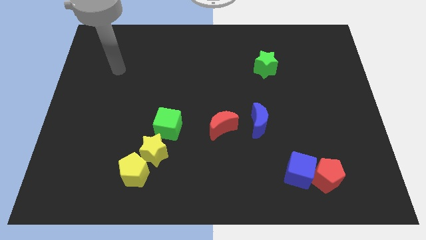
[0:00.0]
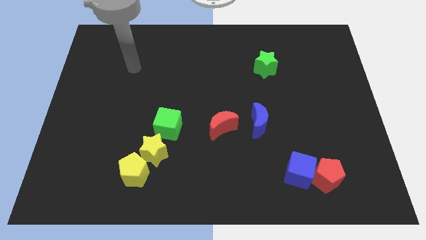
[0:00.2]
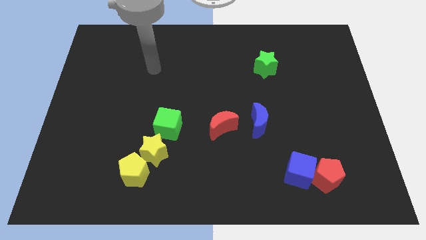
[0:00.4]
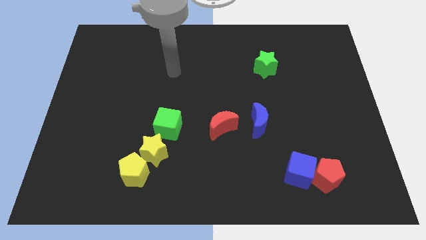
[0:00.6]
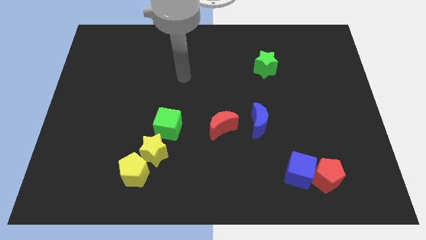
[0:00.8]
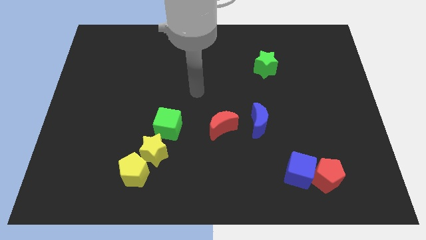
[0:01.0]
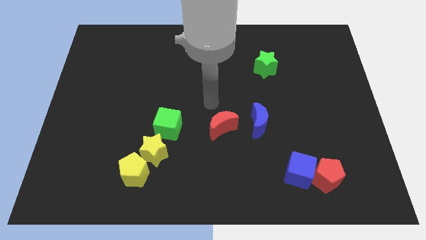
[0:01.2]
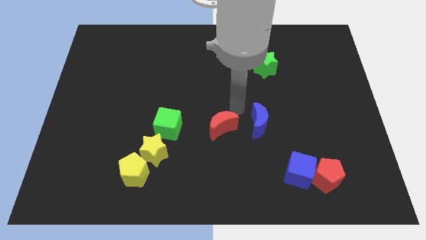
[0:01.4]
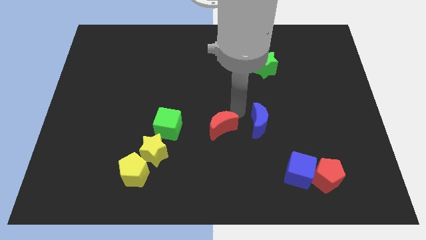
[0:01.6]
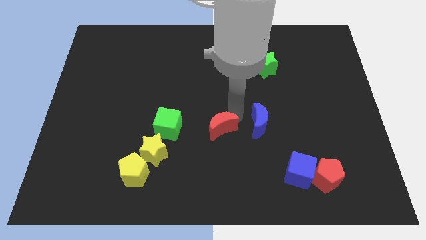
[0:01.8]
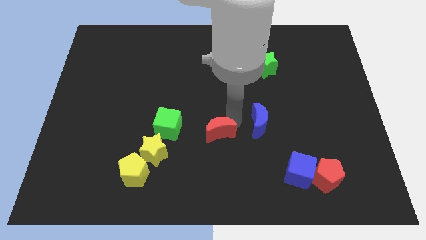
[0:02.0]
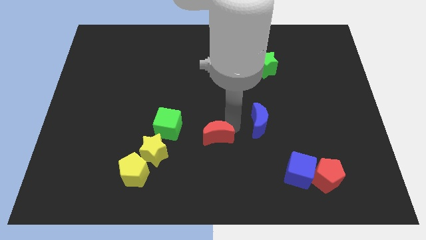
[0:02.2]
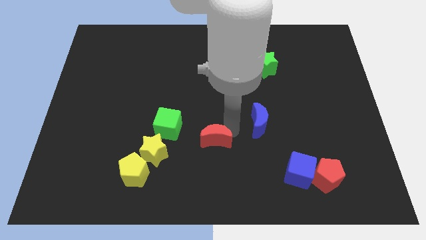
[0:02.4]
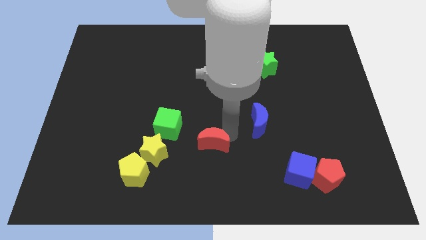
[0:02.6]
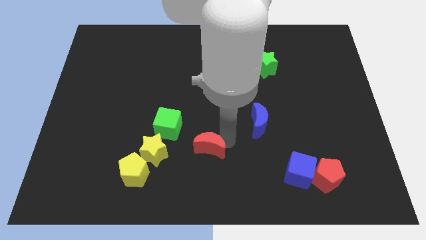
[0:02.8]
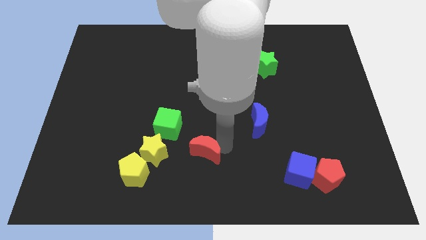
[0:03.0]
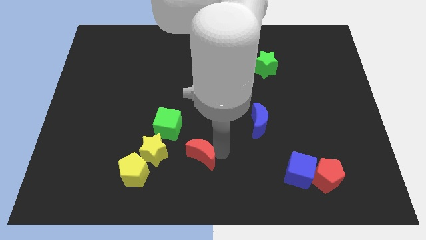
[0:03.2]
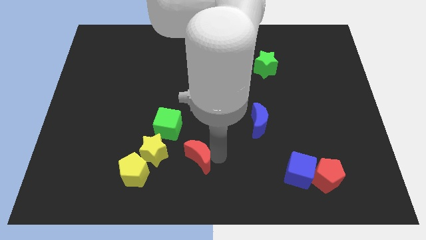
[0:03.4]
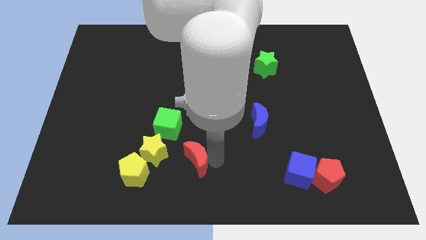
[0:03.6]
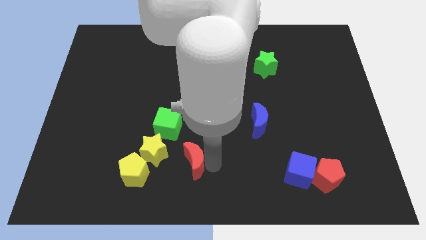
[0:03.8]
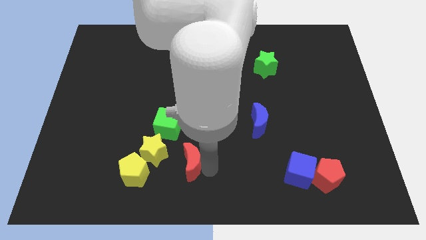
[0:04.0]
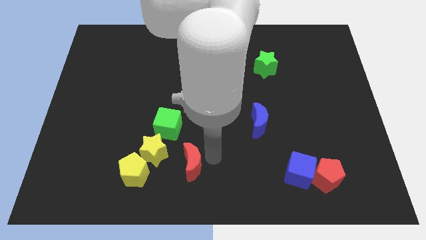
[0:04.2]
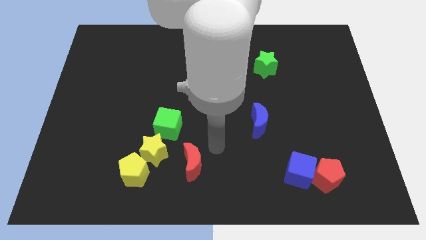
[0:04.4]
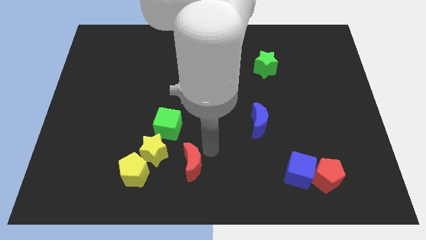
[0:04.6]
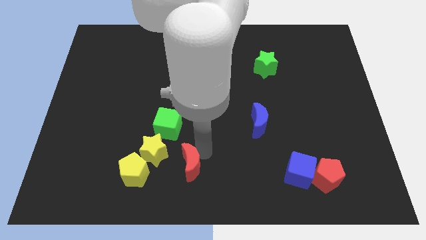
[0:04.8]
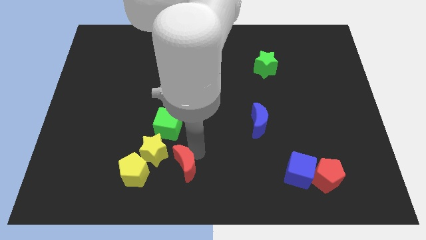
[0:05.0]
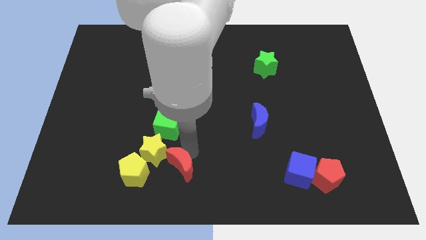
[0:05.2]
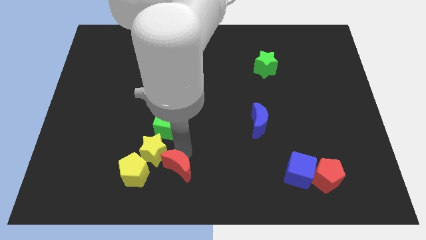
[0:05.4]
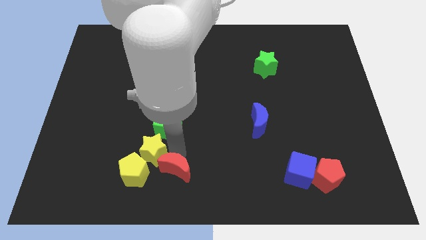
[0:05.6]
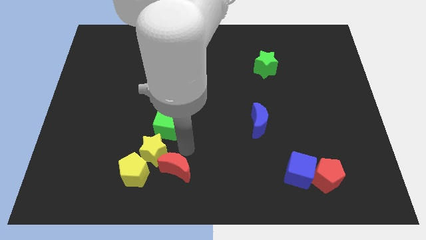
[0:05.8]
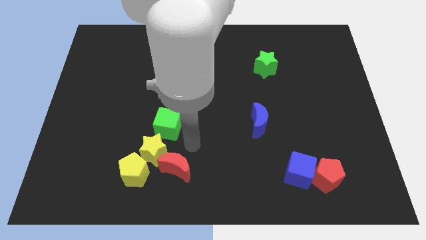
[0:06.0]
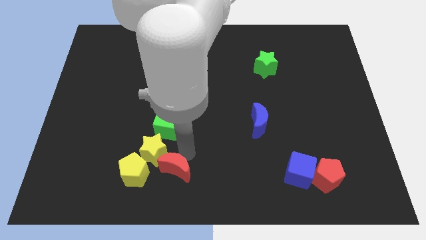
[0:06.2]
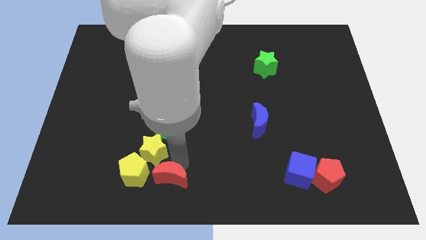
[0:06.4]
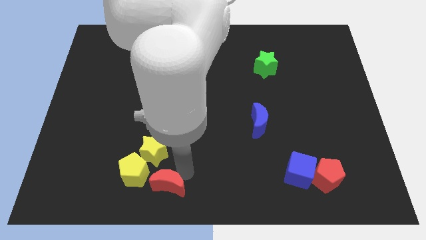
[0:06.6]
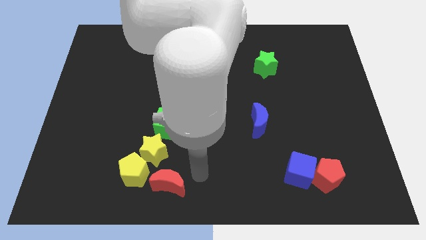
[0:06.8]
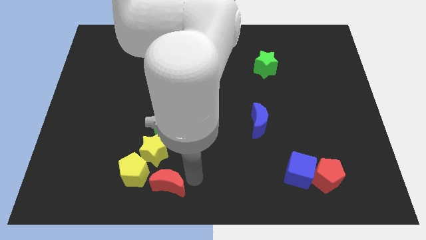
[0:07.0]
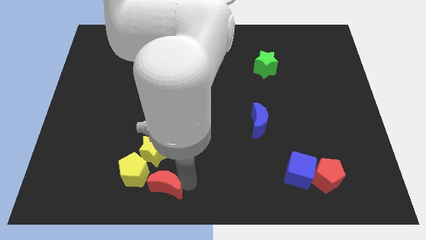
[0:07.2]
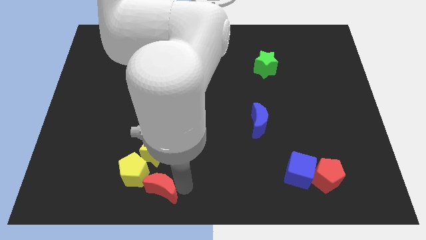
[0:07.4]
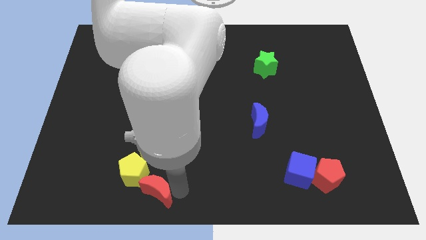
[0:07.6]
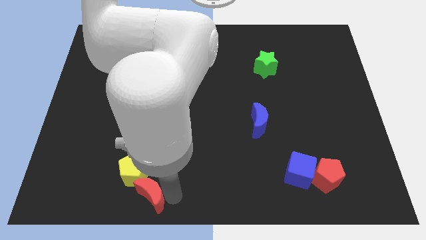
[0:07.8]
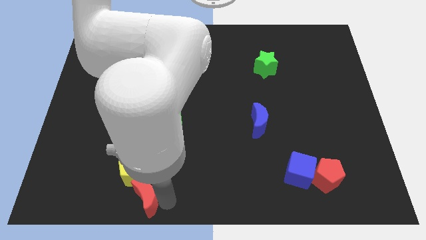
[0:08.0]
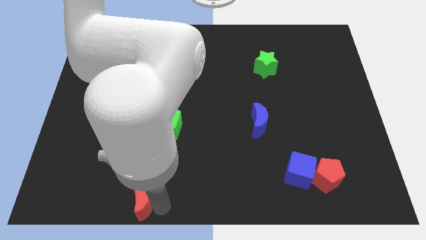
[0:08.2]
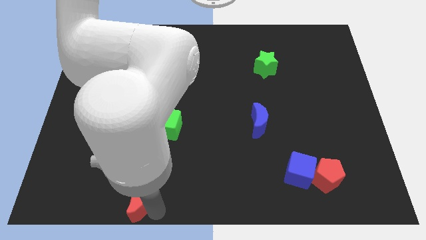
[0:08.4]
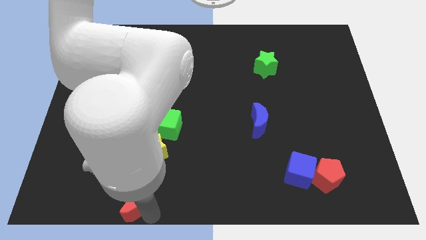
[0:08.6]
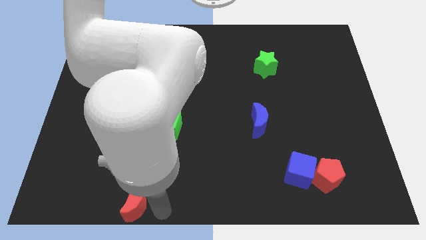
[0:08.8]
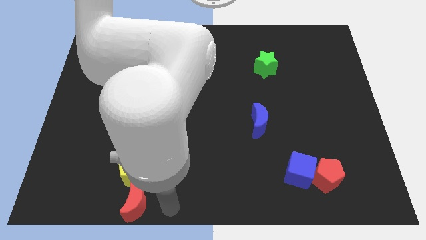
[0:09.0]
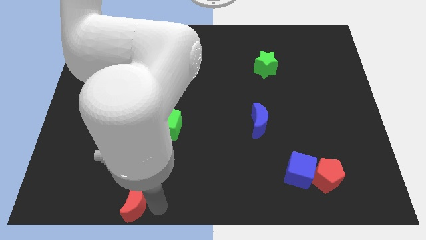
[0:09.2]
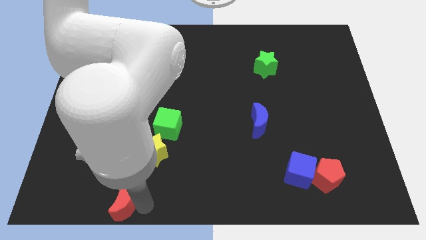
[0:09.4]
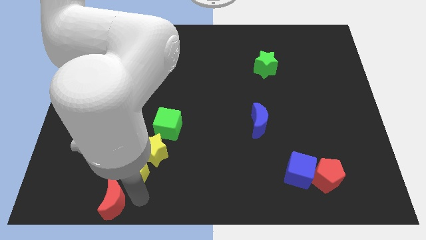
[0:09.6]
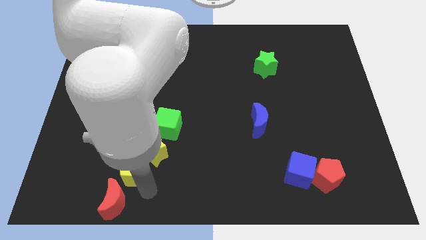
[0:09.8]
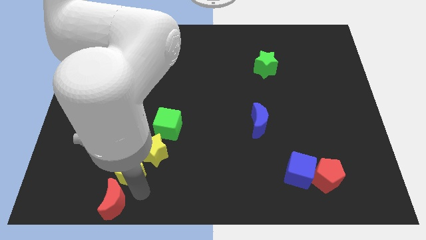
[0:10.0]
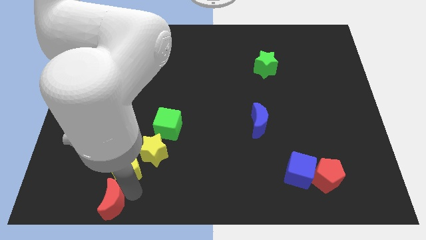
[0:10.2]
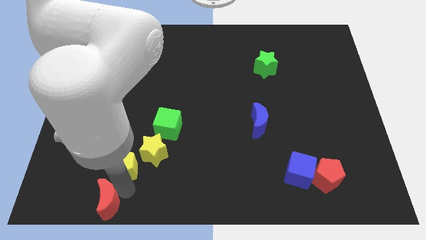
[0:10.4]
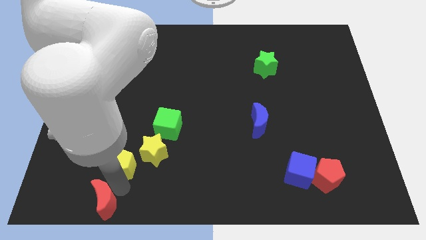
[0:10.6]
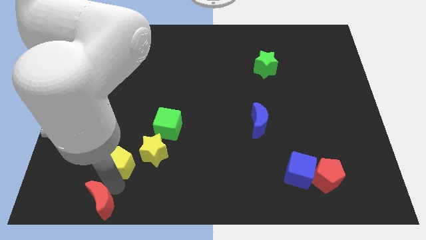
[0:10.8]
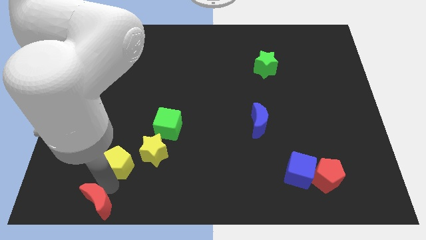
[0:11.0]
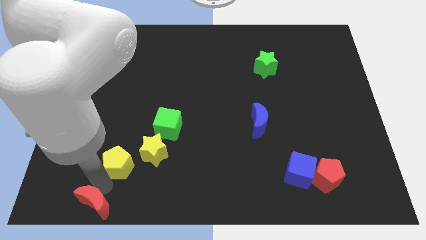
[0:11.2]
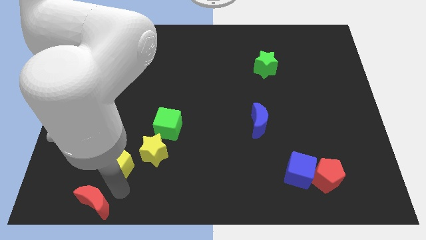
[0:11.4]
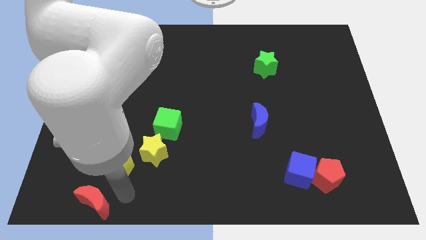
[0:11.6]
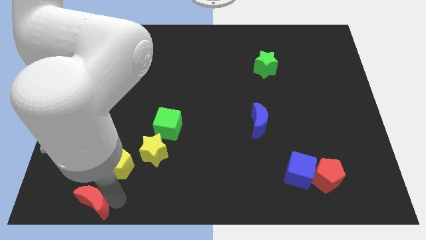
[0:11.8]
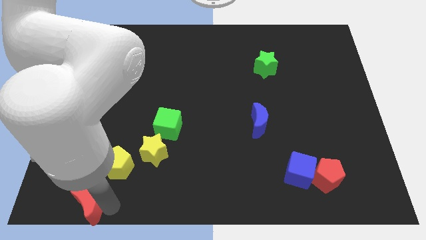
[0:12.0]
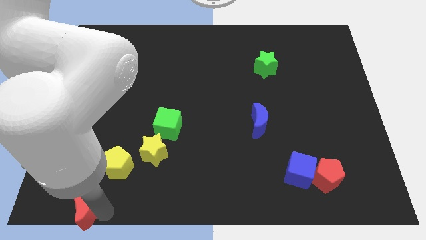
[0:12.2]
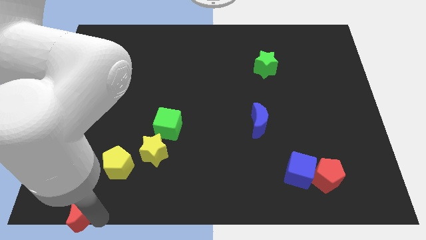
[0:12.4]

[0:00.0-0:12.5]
push the red moon to the bottom left of the board
